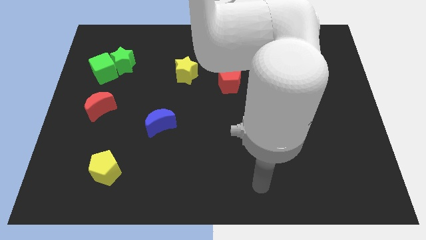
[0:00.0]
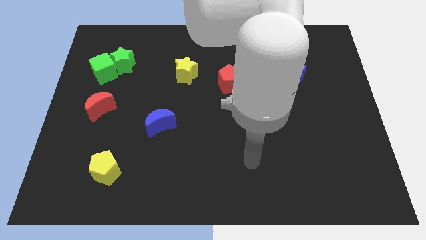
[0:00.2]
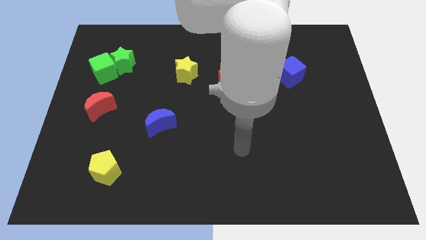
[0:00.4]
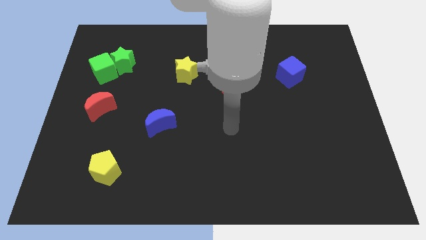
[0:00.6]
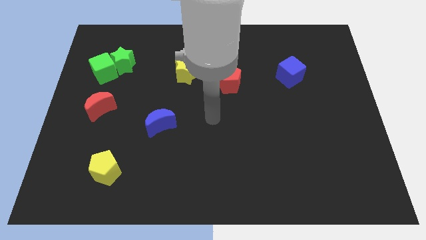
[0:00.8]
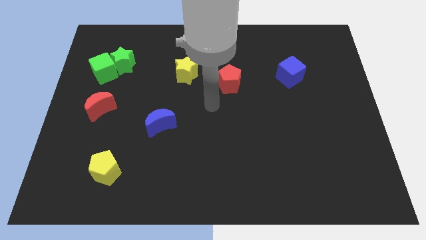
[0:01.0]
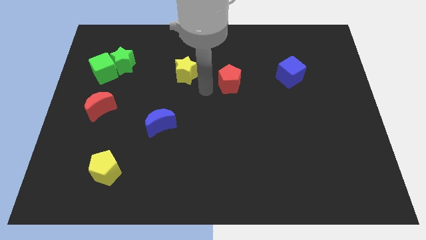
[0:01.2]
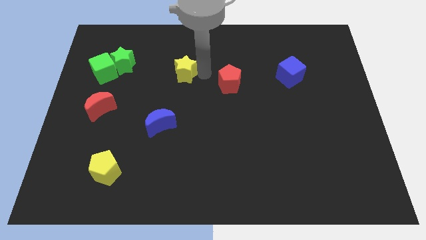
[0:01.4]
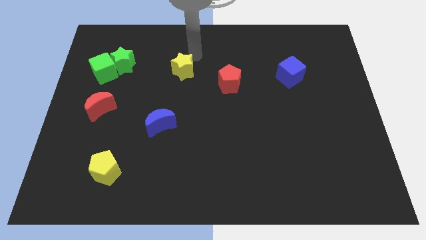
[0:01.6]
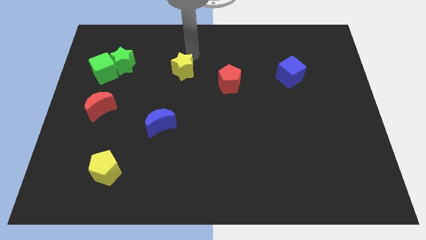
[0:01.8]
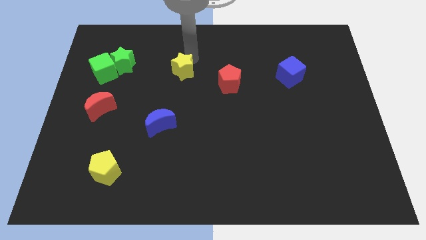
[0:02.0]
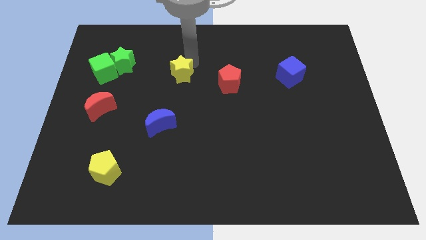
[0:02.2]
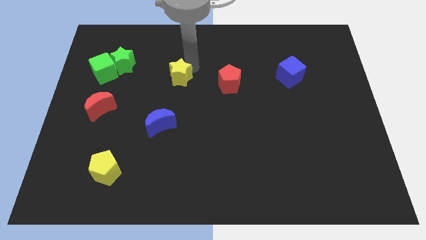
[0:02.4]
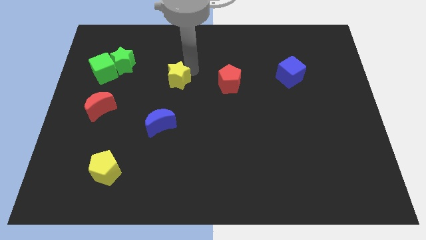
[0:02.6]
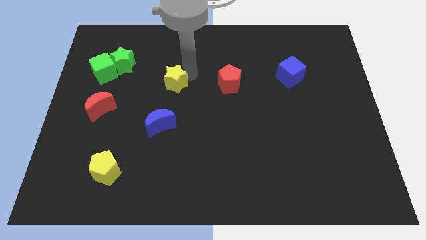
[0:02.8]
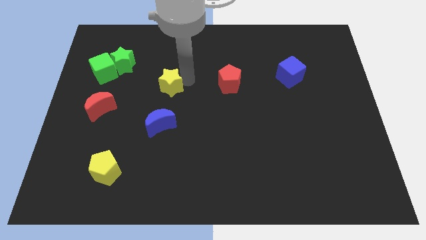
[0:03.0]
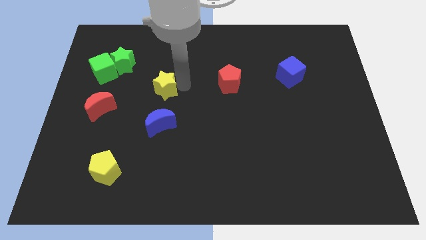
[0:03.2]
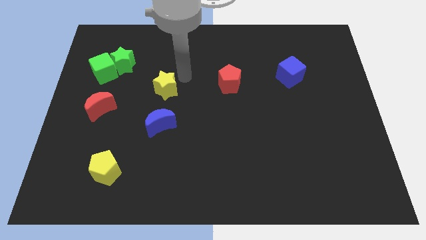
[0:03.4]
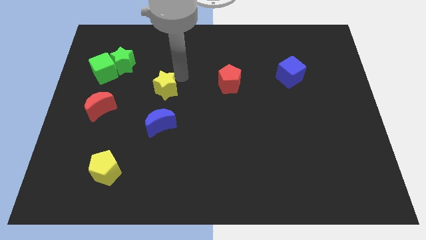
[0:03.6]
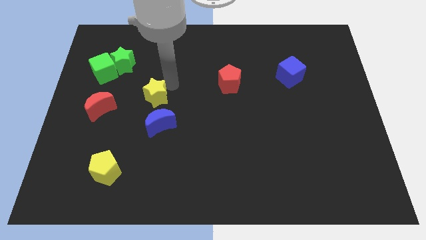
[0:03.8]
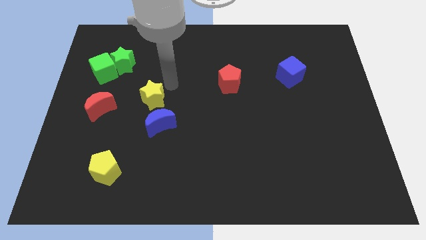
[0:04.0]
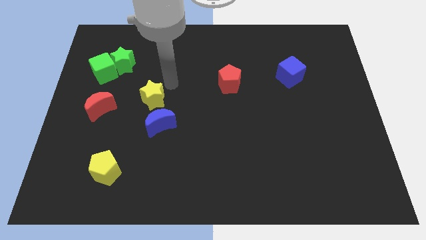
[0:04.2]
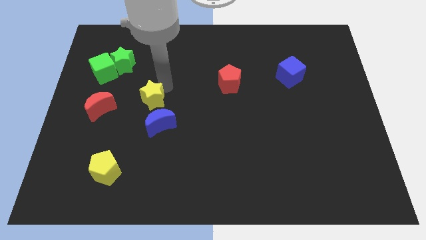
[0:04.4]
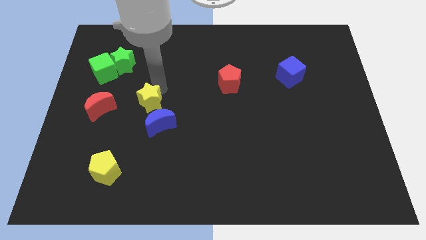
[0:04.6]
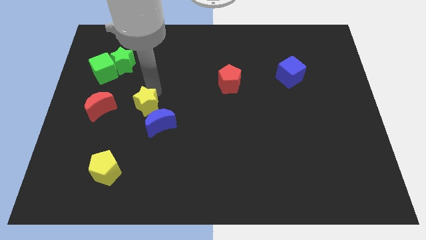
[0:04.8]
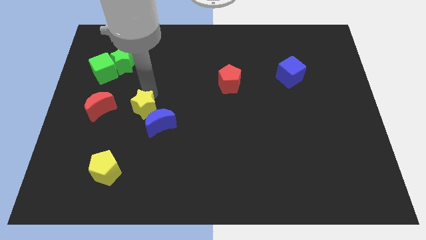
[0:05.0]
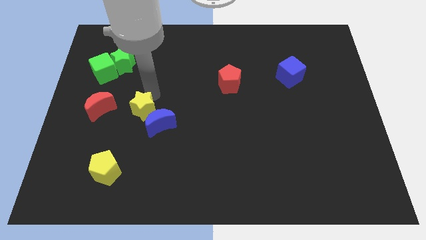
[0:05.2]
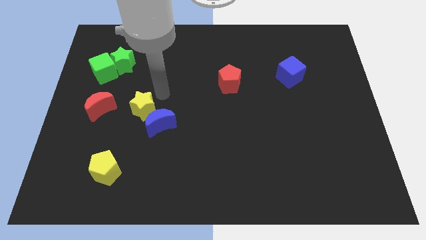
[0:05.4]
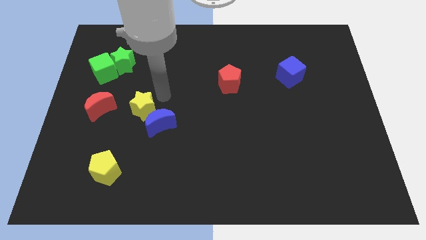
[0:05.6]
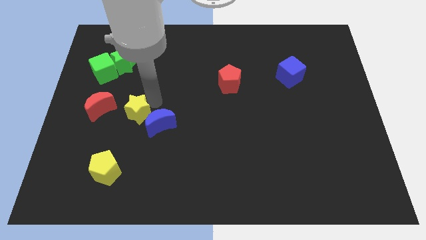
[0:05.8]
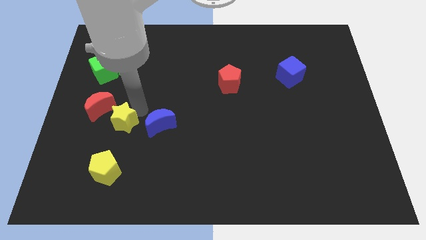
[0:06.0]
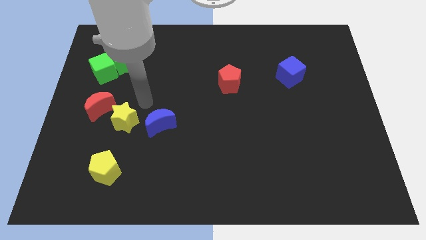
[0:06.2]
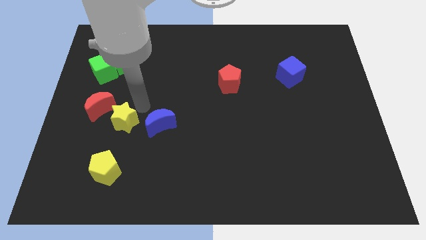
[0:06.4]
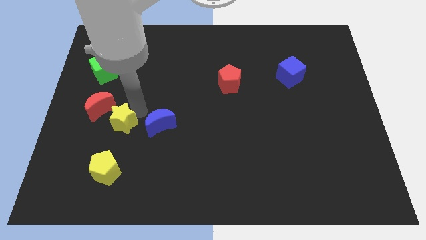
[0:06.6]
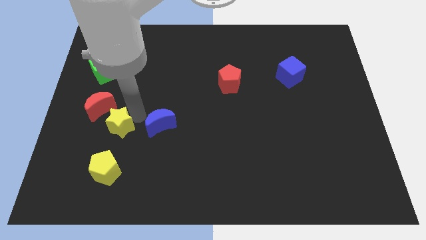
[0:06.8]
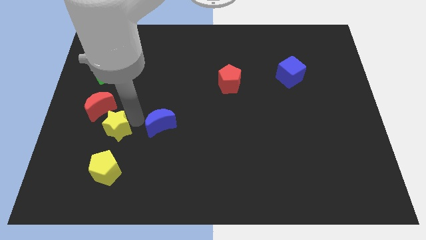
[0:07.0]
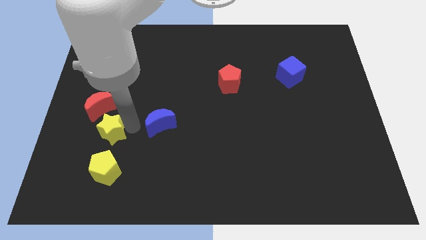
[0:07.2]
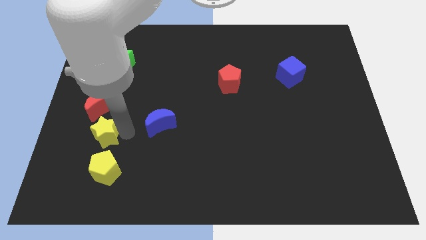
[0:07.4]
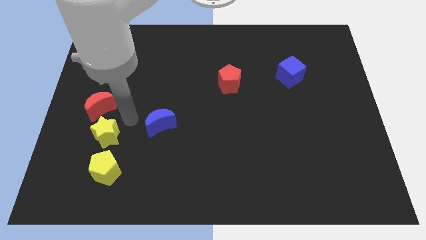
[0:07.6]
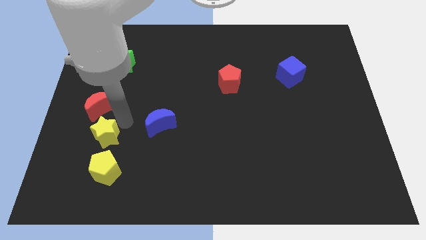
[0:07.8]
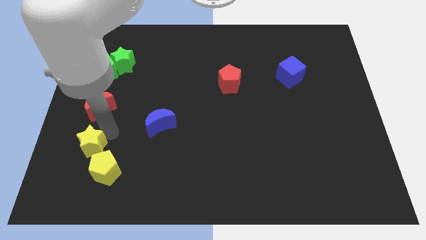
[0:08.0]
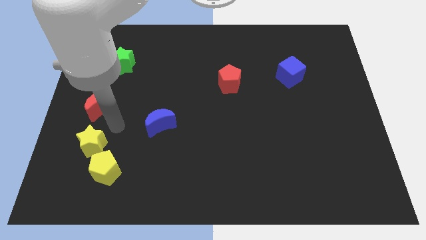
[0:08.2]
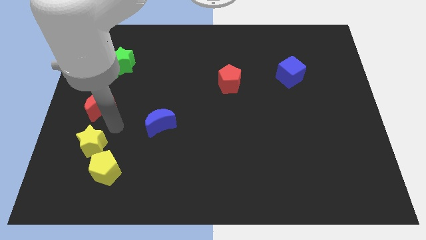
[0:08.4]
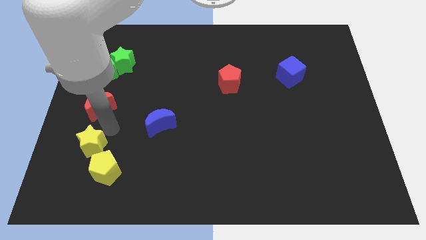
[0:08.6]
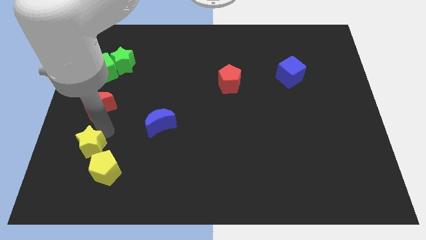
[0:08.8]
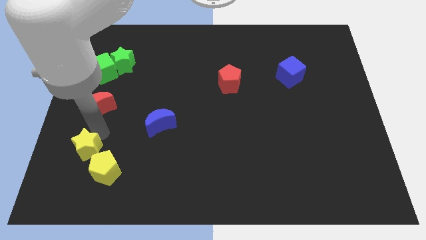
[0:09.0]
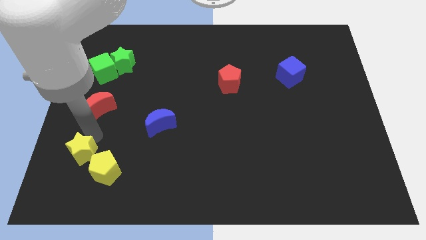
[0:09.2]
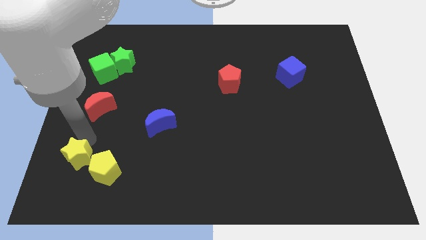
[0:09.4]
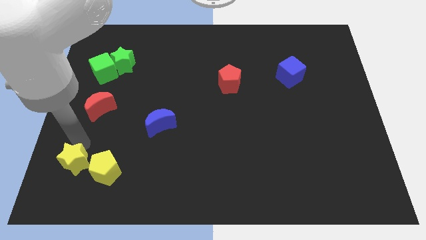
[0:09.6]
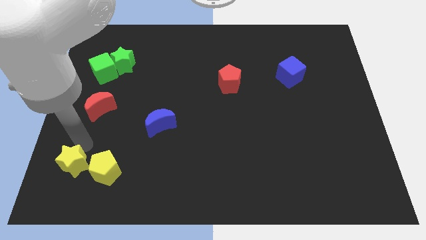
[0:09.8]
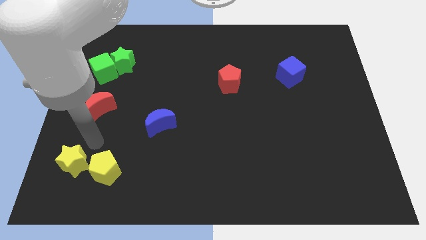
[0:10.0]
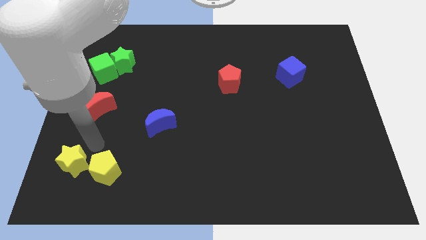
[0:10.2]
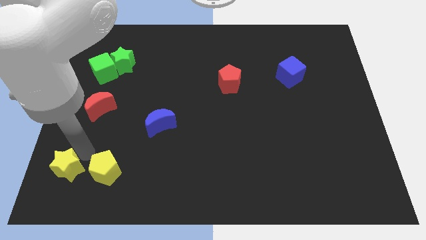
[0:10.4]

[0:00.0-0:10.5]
move the yellow star to the bottom left corner

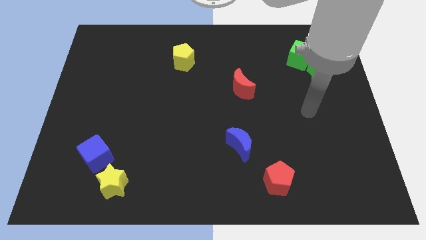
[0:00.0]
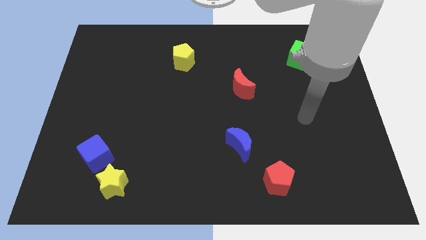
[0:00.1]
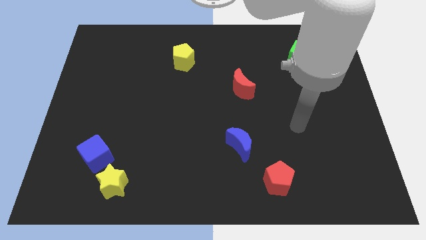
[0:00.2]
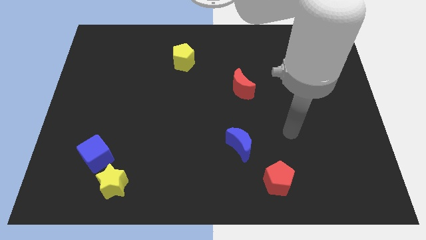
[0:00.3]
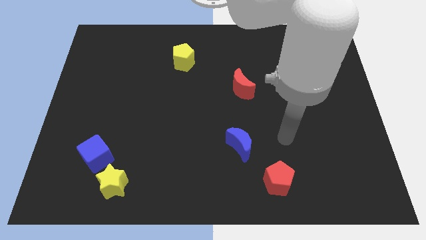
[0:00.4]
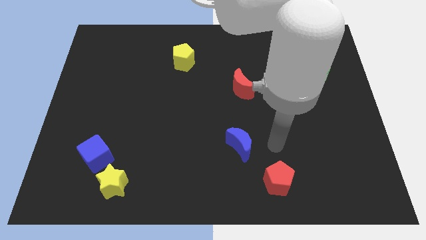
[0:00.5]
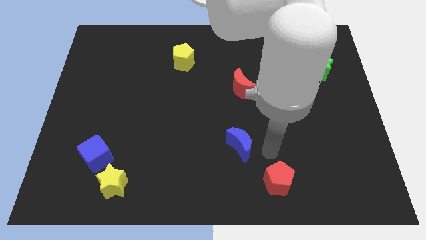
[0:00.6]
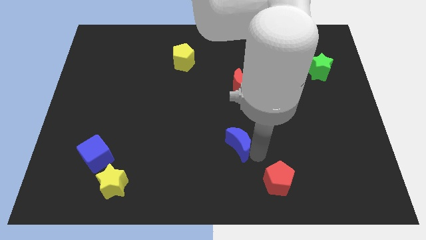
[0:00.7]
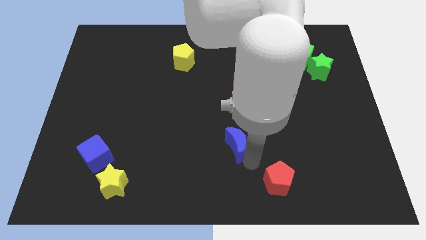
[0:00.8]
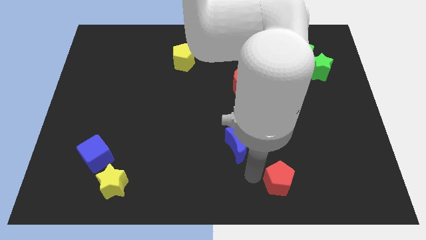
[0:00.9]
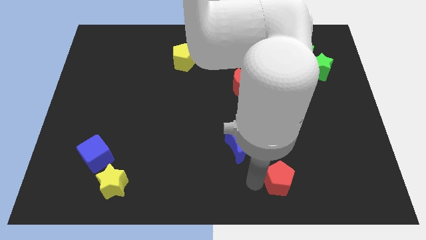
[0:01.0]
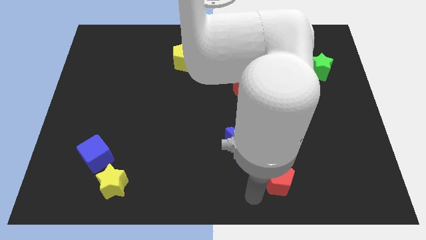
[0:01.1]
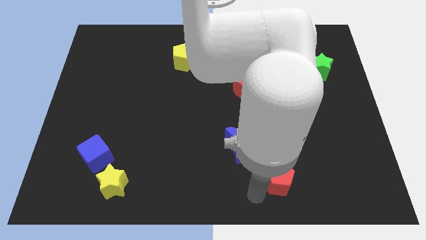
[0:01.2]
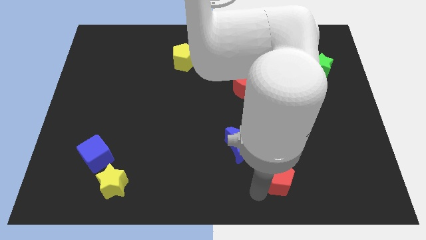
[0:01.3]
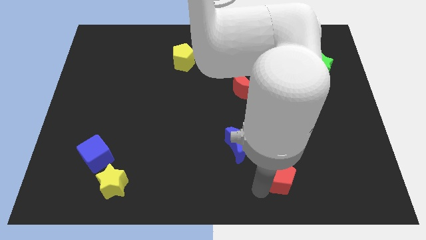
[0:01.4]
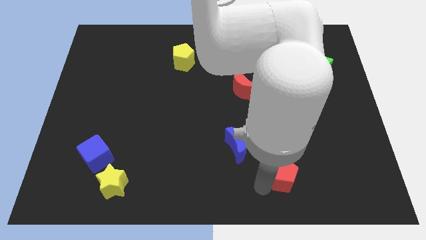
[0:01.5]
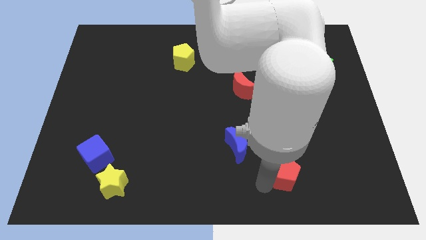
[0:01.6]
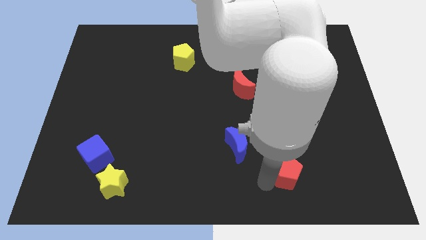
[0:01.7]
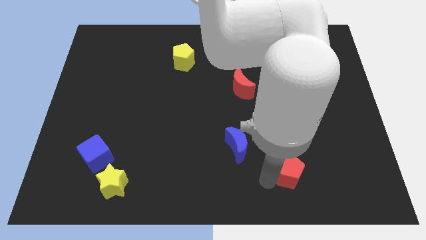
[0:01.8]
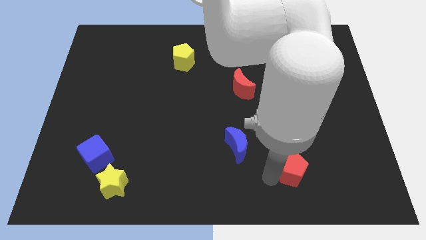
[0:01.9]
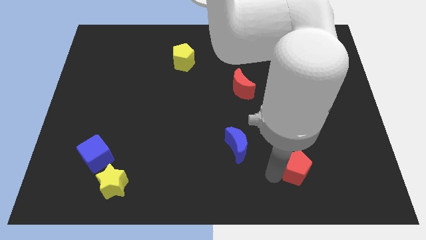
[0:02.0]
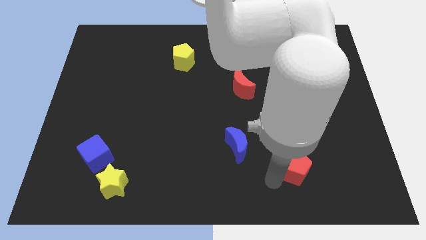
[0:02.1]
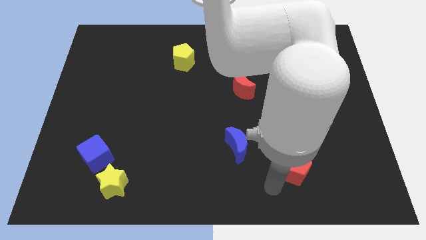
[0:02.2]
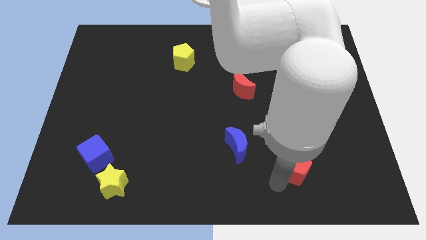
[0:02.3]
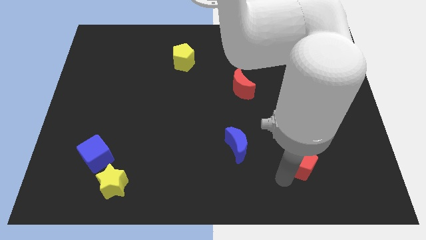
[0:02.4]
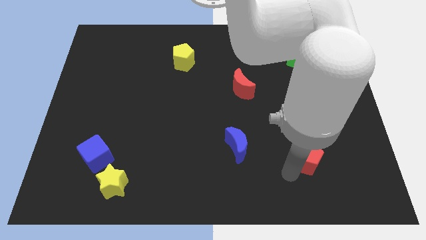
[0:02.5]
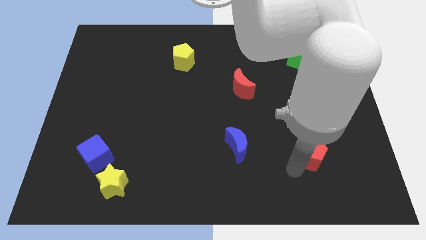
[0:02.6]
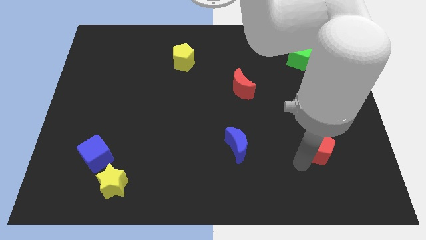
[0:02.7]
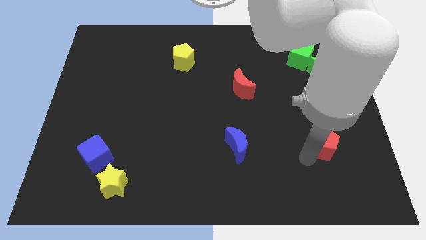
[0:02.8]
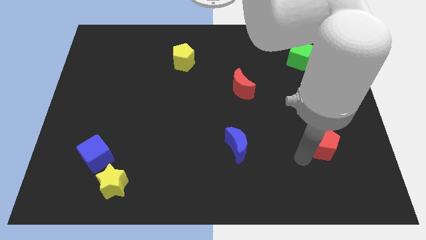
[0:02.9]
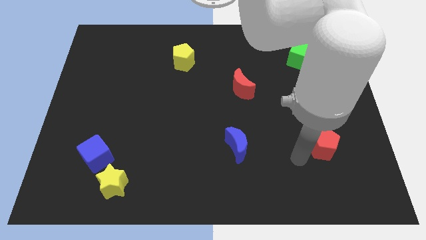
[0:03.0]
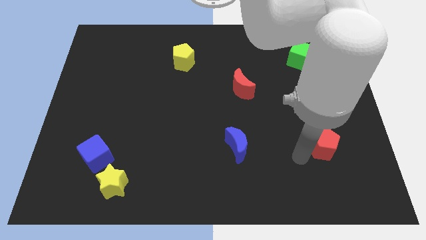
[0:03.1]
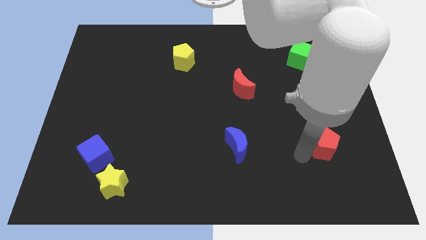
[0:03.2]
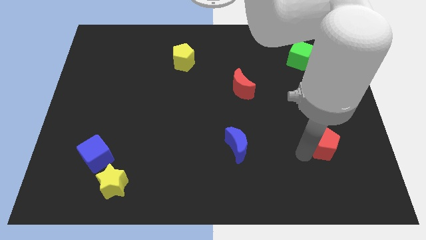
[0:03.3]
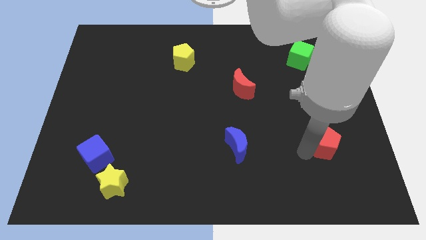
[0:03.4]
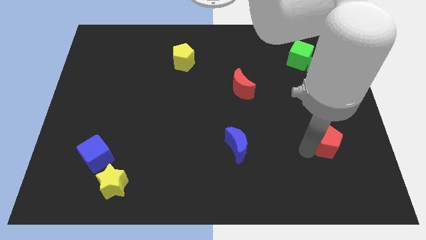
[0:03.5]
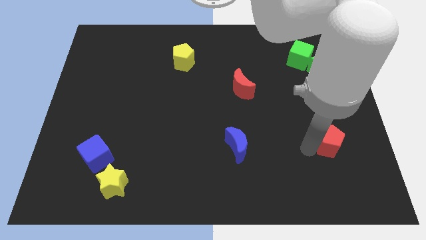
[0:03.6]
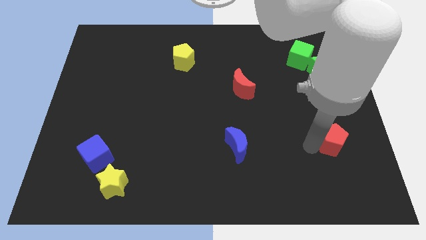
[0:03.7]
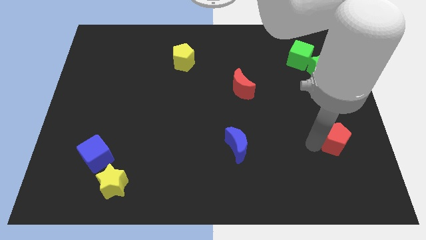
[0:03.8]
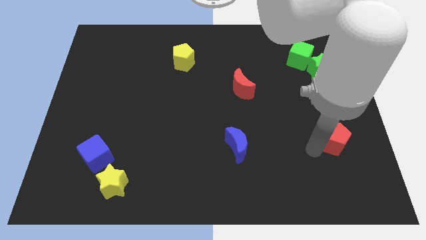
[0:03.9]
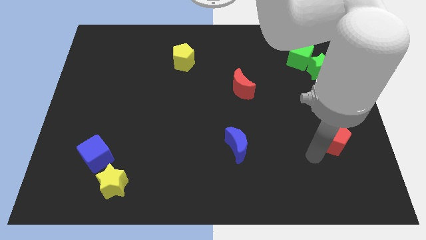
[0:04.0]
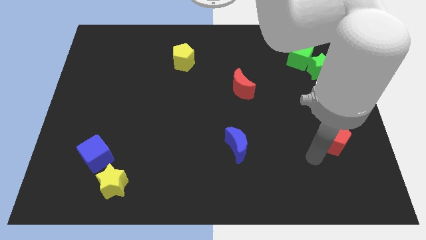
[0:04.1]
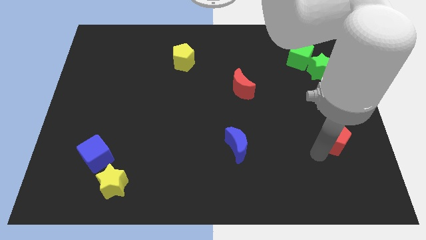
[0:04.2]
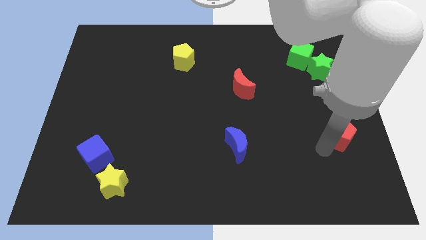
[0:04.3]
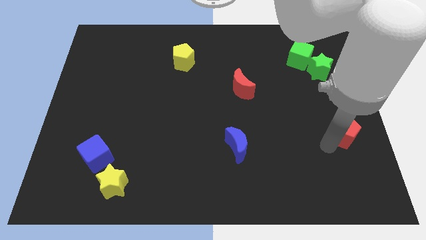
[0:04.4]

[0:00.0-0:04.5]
move the red pentagon to the center right
